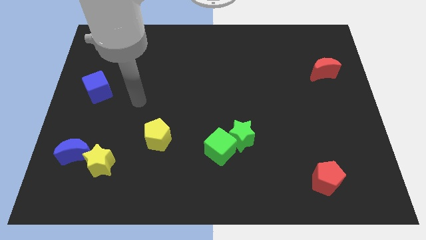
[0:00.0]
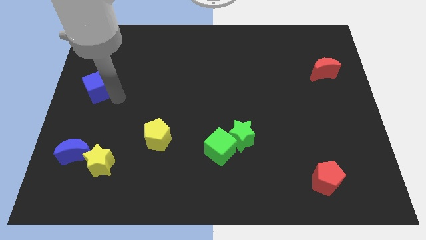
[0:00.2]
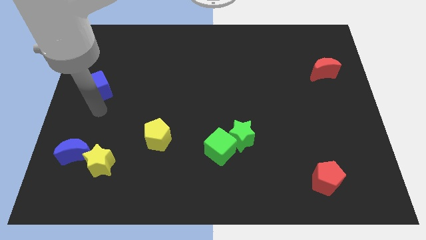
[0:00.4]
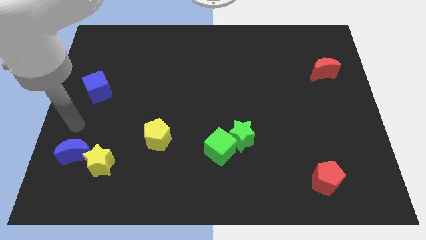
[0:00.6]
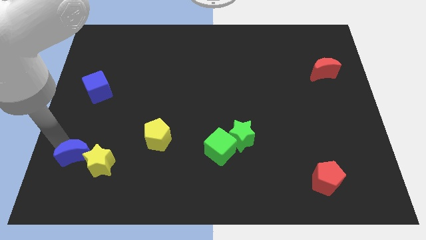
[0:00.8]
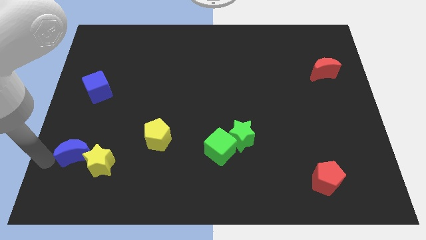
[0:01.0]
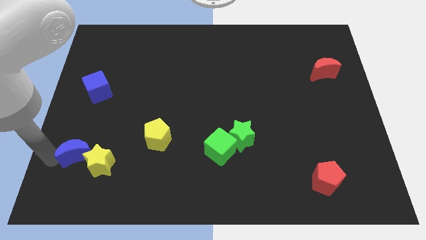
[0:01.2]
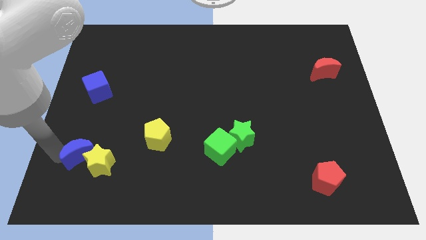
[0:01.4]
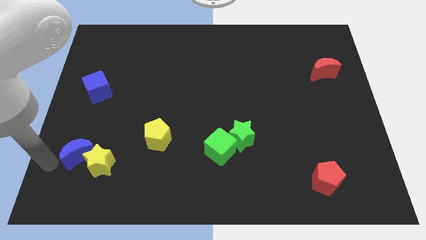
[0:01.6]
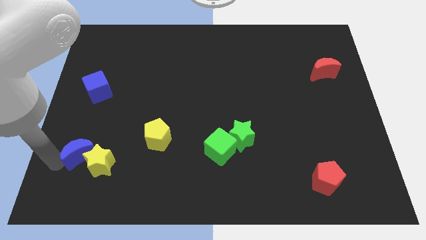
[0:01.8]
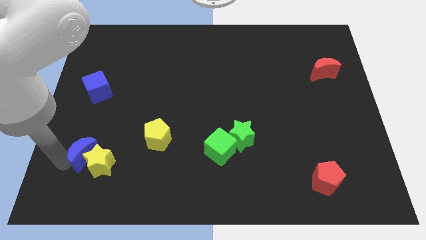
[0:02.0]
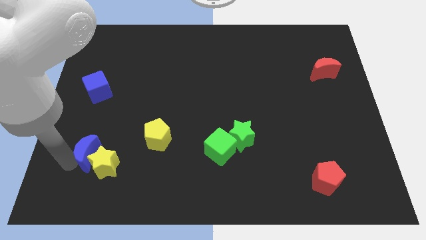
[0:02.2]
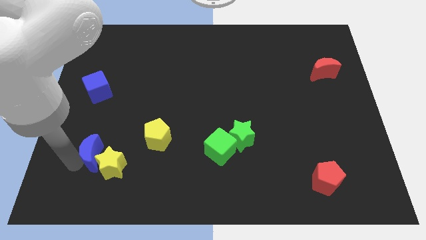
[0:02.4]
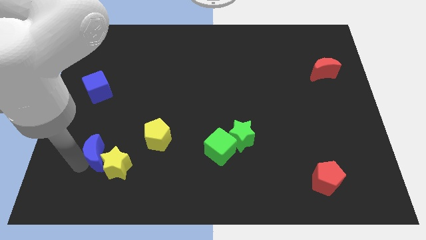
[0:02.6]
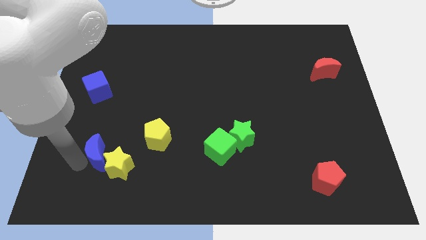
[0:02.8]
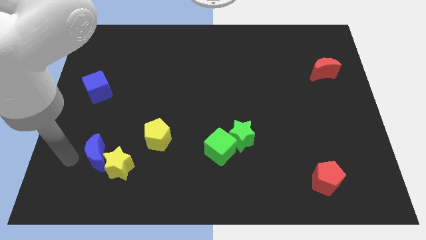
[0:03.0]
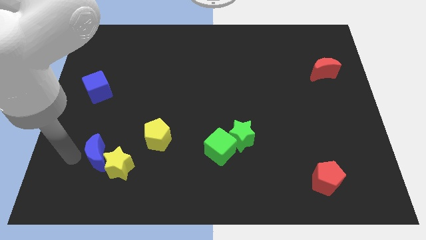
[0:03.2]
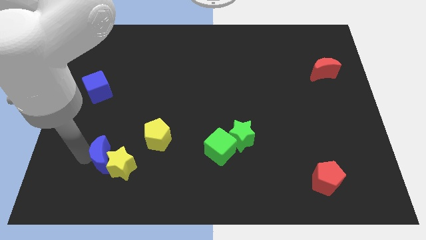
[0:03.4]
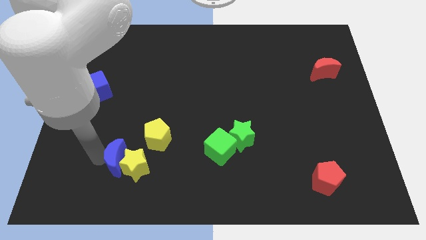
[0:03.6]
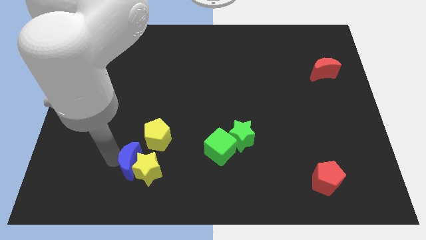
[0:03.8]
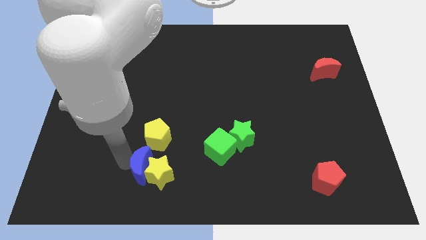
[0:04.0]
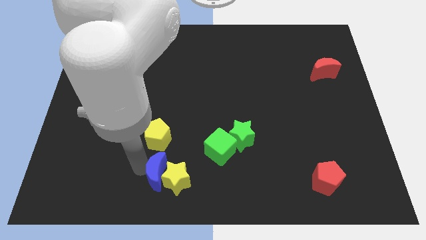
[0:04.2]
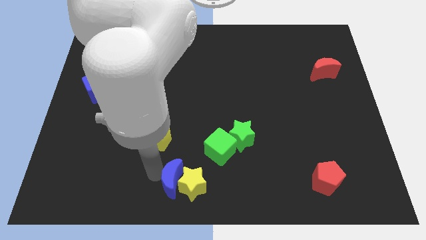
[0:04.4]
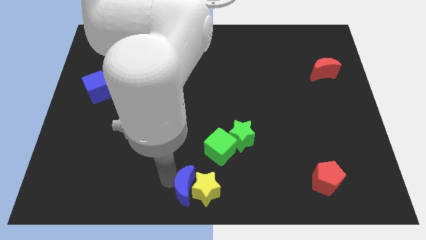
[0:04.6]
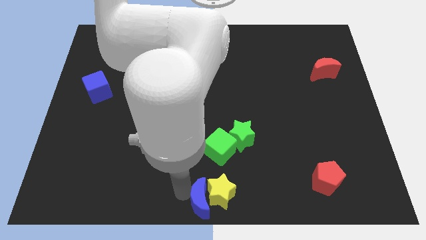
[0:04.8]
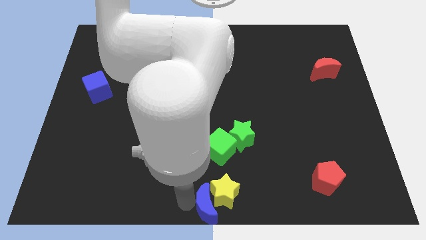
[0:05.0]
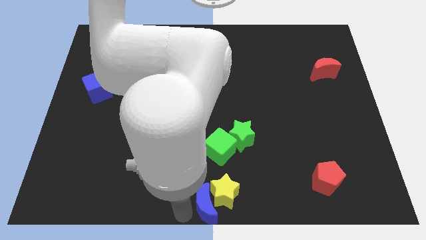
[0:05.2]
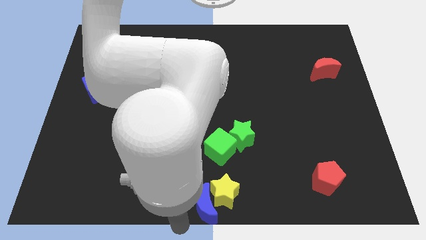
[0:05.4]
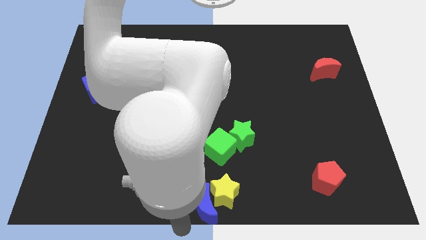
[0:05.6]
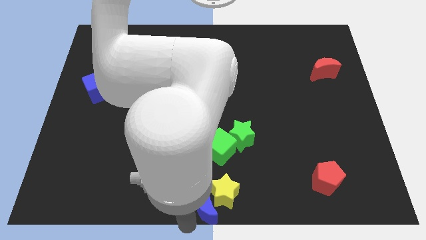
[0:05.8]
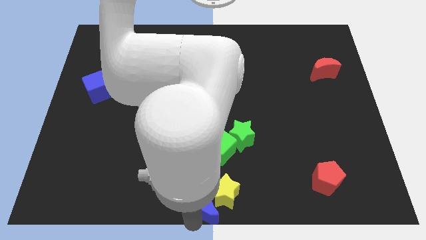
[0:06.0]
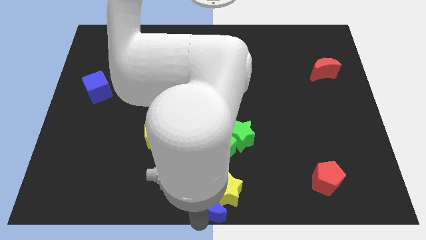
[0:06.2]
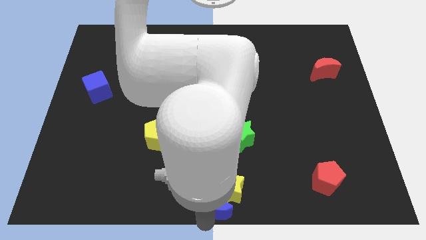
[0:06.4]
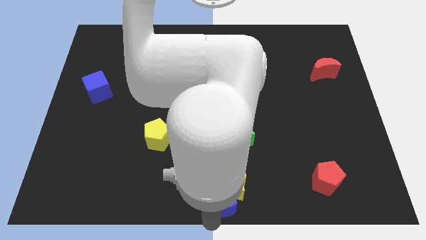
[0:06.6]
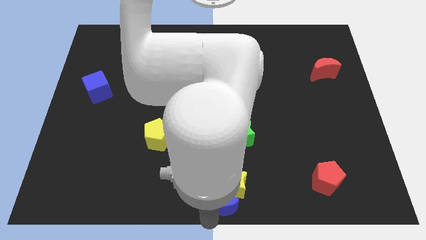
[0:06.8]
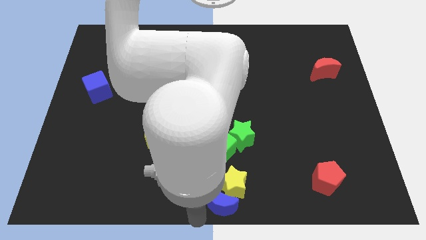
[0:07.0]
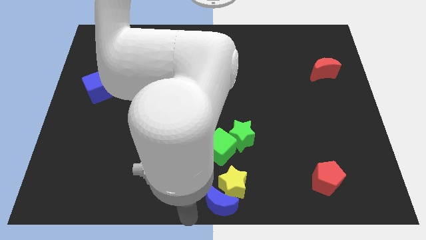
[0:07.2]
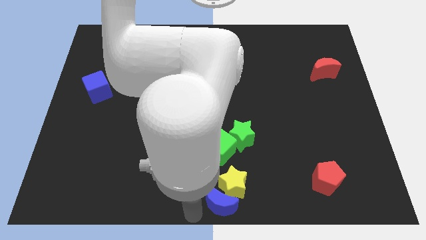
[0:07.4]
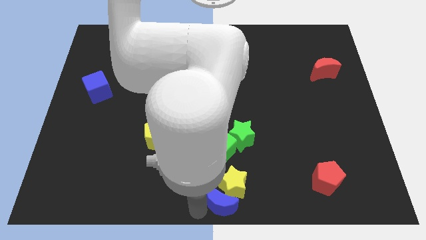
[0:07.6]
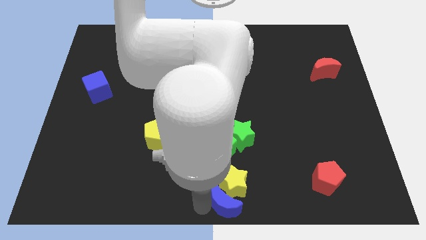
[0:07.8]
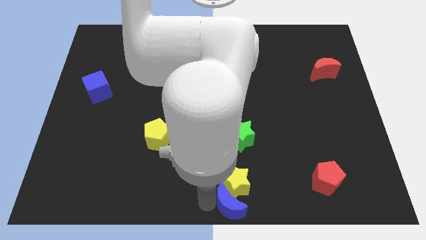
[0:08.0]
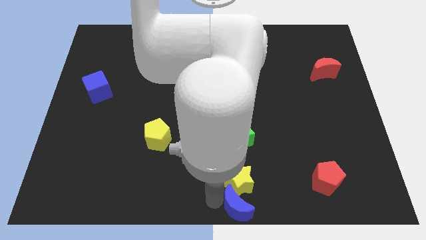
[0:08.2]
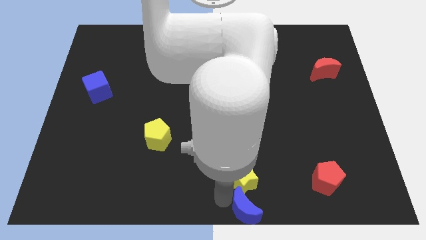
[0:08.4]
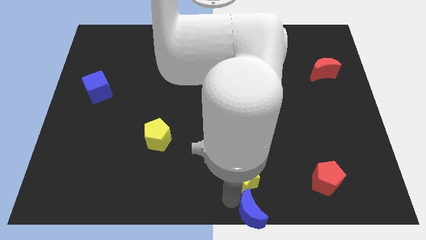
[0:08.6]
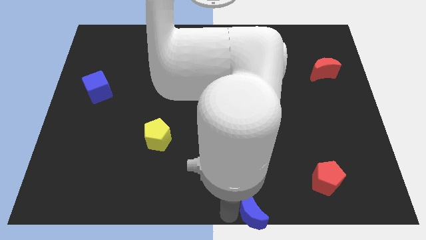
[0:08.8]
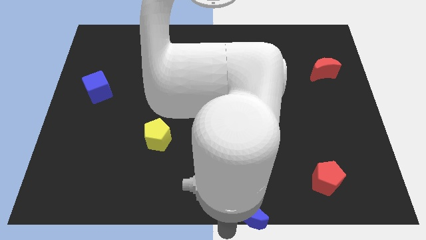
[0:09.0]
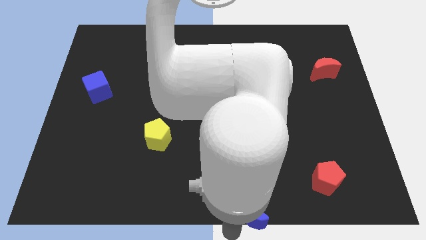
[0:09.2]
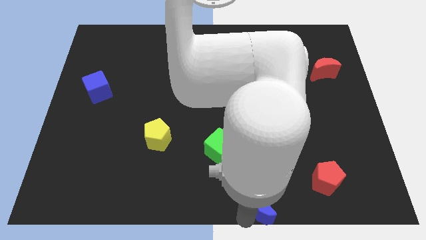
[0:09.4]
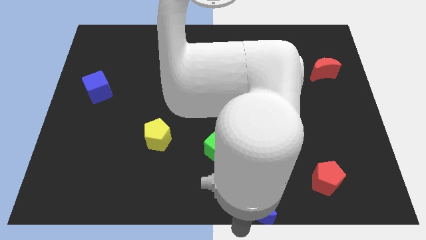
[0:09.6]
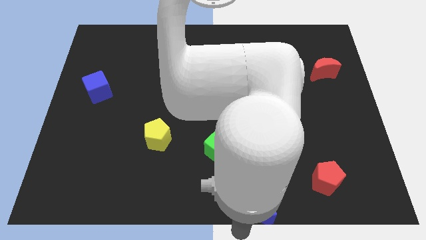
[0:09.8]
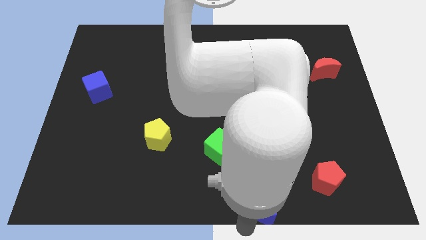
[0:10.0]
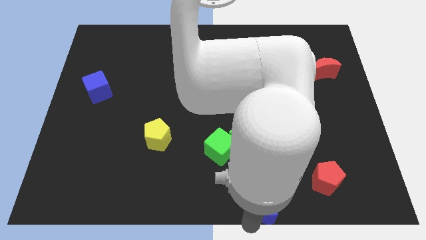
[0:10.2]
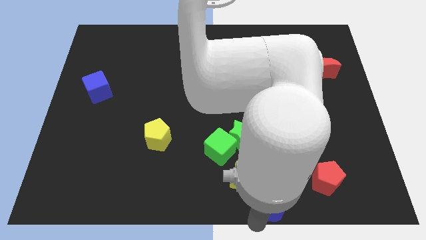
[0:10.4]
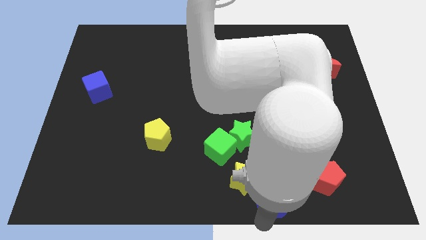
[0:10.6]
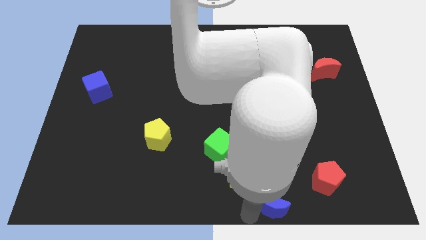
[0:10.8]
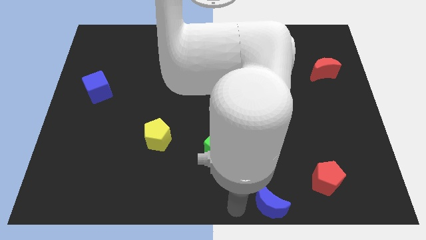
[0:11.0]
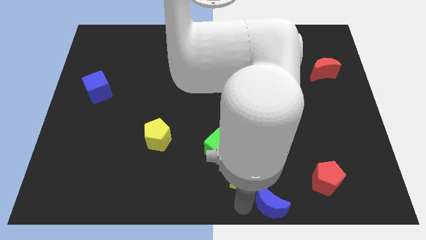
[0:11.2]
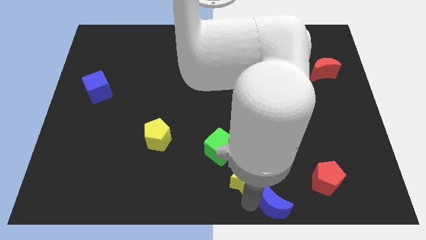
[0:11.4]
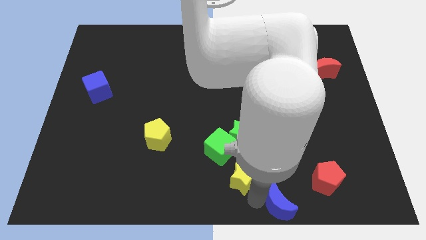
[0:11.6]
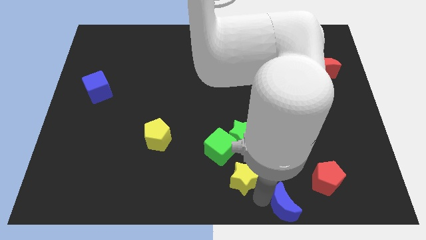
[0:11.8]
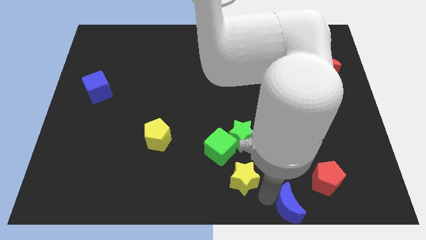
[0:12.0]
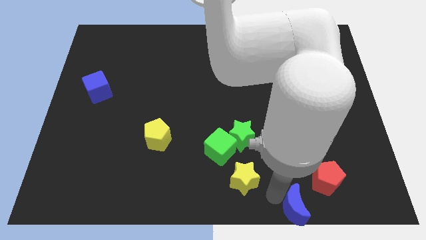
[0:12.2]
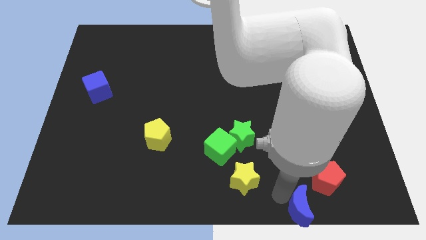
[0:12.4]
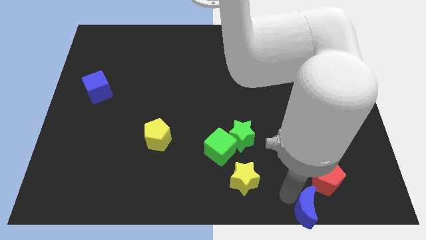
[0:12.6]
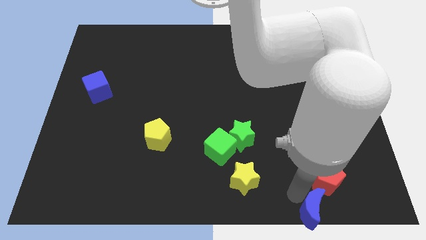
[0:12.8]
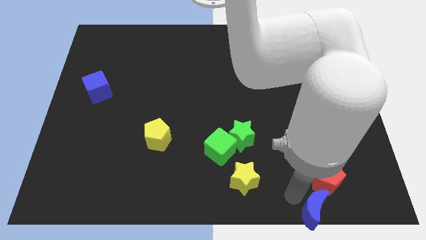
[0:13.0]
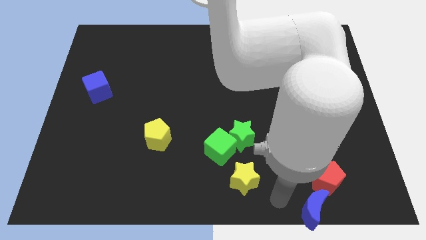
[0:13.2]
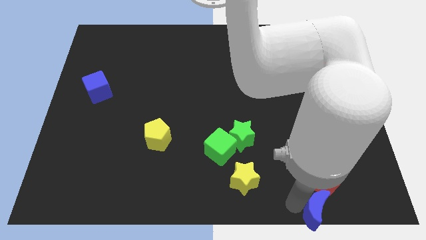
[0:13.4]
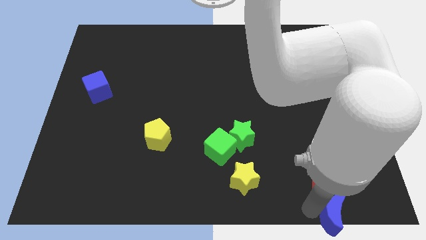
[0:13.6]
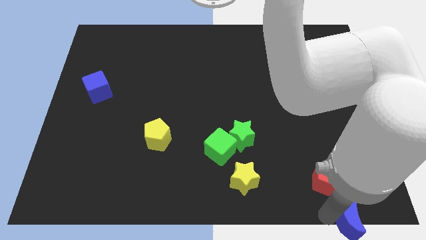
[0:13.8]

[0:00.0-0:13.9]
slide the blue moon to the bottom right of the board
